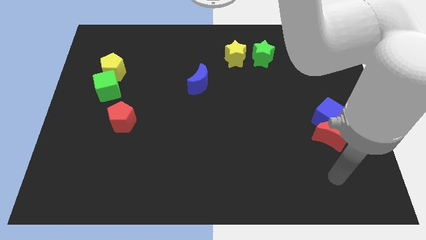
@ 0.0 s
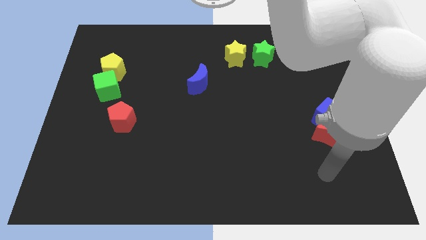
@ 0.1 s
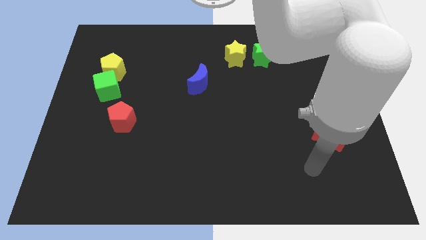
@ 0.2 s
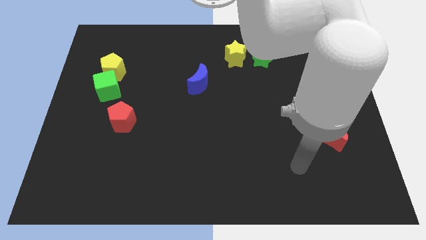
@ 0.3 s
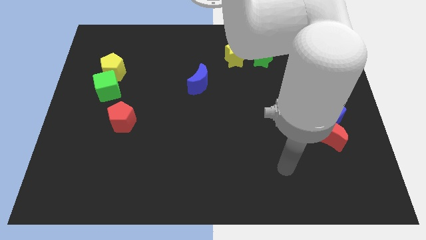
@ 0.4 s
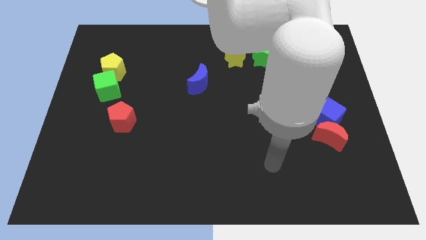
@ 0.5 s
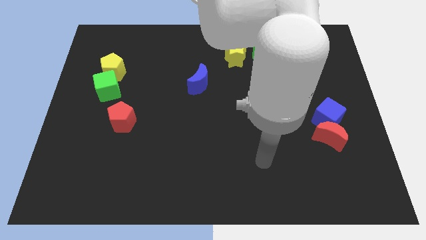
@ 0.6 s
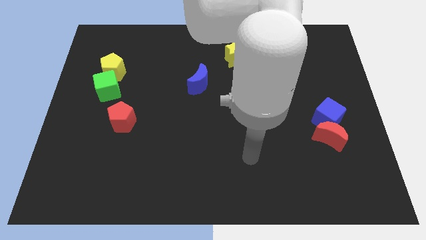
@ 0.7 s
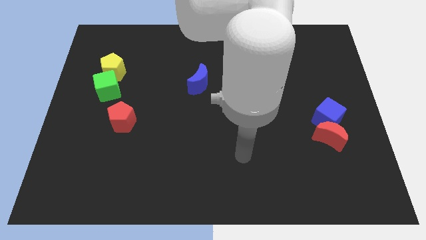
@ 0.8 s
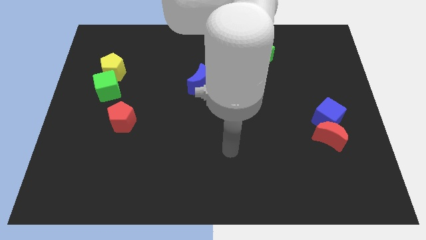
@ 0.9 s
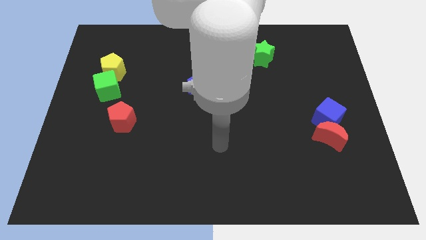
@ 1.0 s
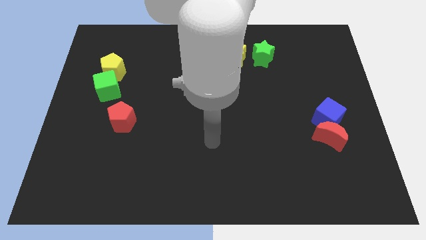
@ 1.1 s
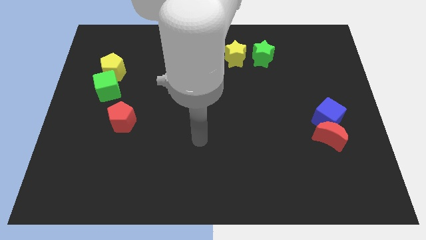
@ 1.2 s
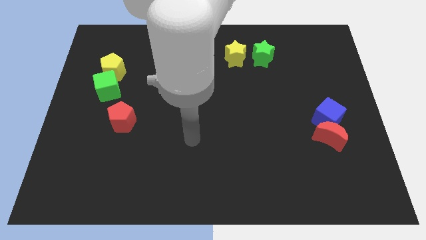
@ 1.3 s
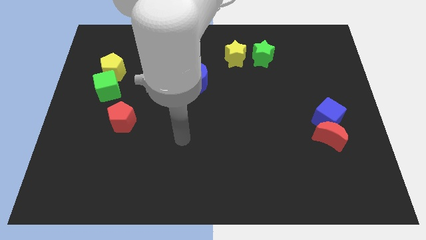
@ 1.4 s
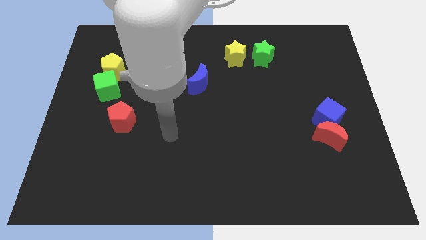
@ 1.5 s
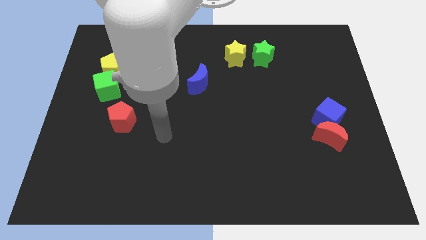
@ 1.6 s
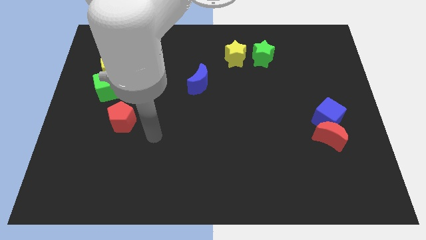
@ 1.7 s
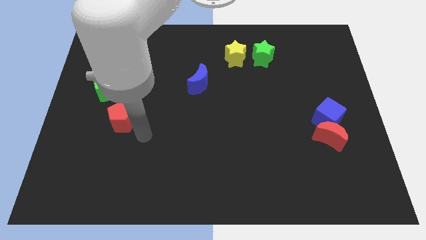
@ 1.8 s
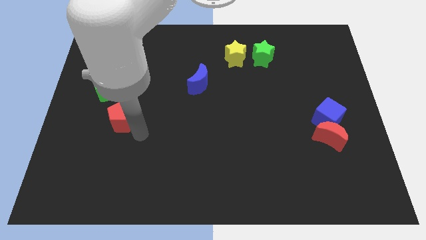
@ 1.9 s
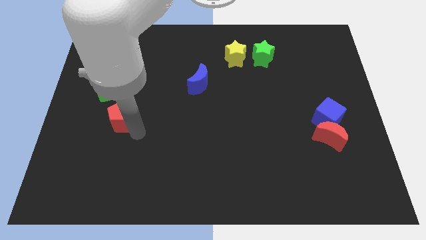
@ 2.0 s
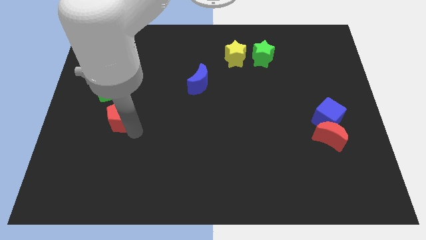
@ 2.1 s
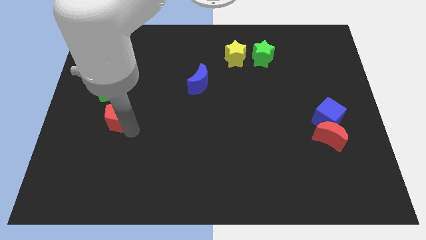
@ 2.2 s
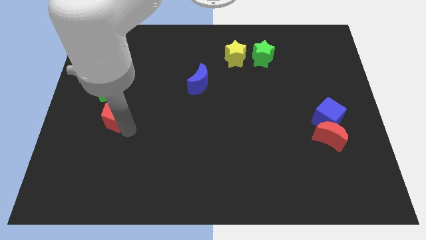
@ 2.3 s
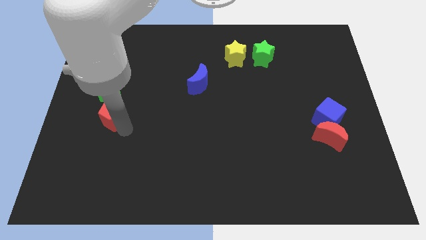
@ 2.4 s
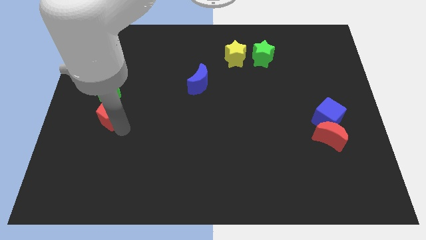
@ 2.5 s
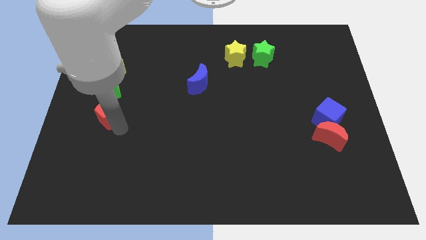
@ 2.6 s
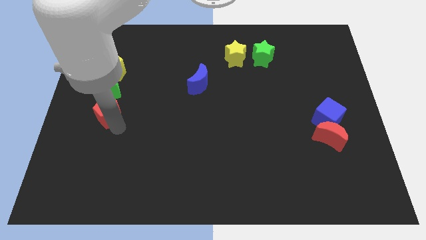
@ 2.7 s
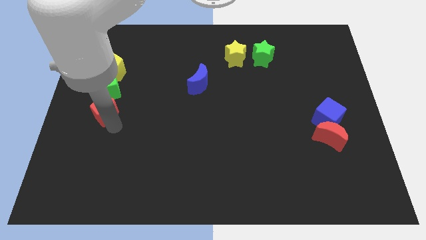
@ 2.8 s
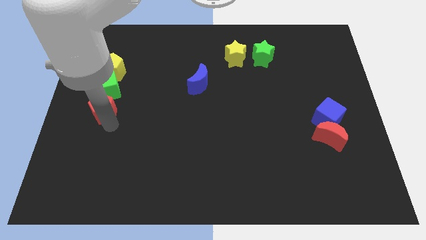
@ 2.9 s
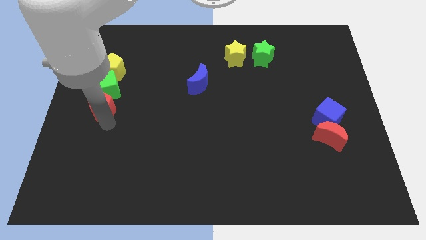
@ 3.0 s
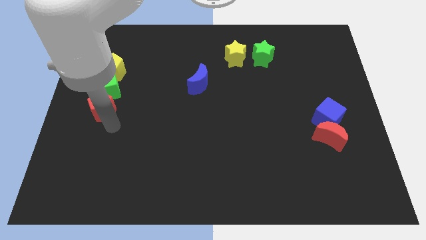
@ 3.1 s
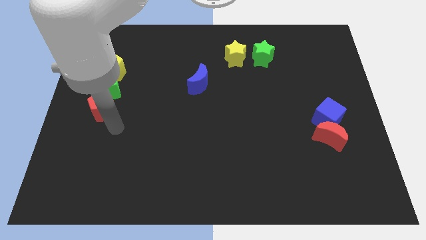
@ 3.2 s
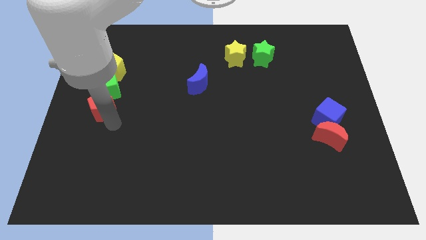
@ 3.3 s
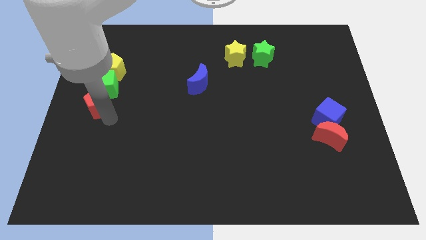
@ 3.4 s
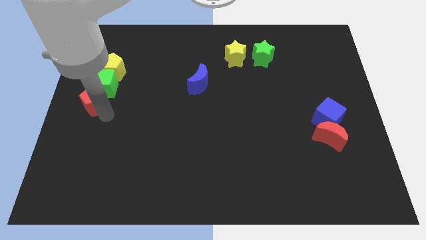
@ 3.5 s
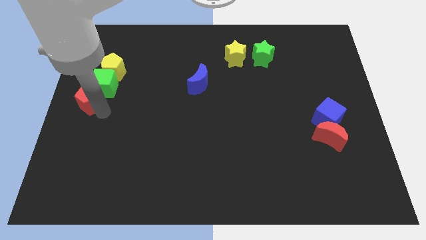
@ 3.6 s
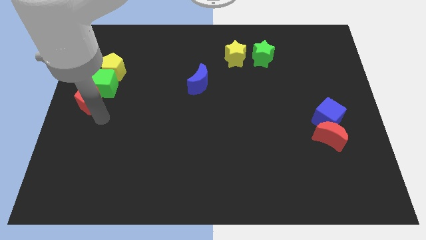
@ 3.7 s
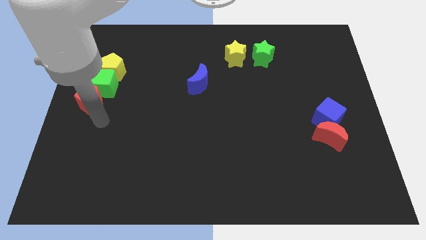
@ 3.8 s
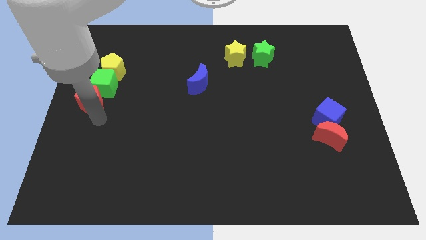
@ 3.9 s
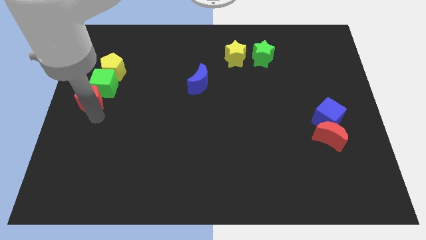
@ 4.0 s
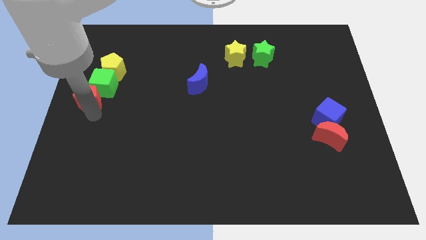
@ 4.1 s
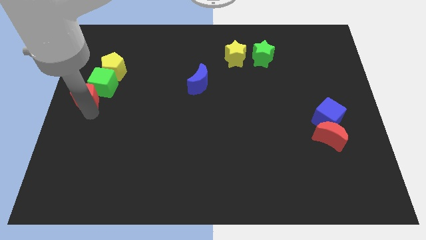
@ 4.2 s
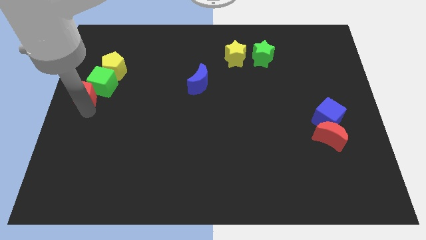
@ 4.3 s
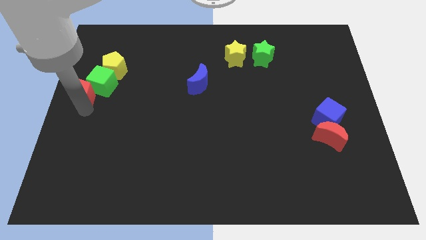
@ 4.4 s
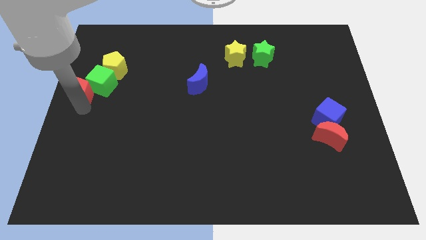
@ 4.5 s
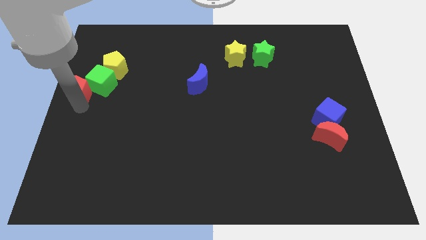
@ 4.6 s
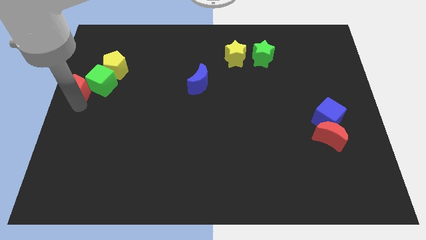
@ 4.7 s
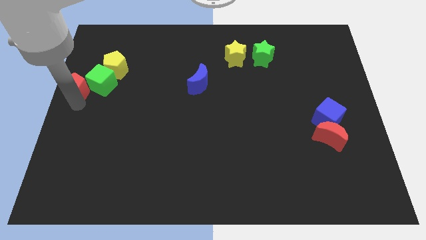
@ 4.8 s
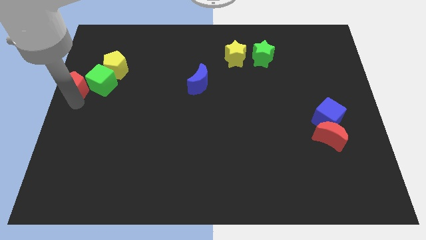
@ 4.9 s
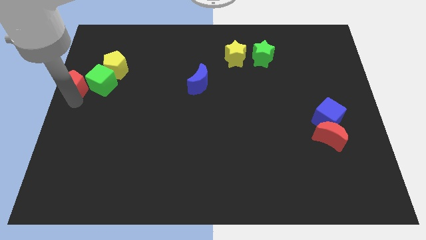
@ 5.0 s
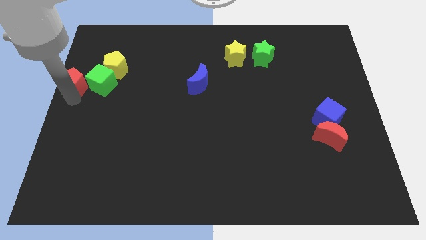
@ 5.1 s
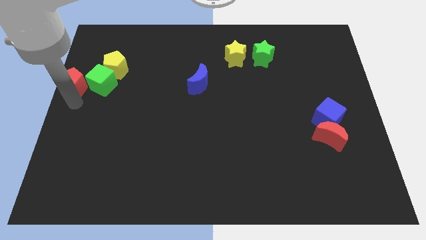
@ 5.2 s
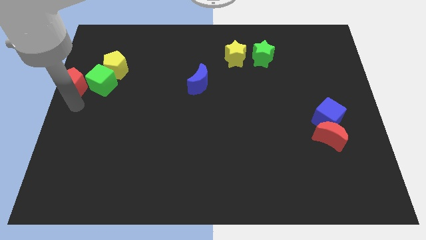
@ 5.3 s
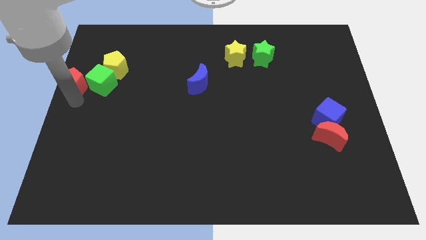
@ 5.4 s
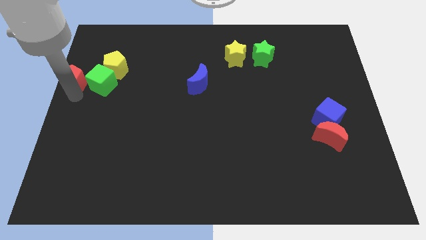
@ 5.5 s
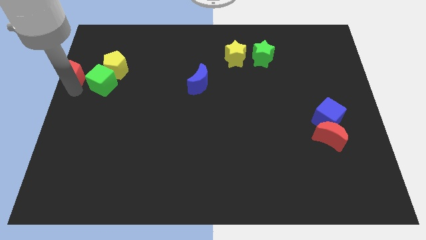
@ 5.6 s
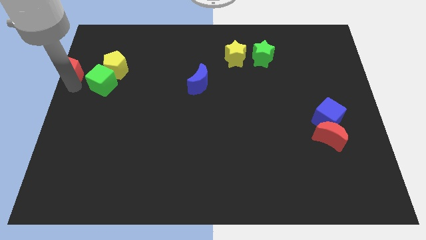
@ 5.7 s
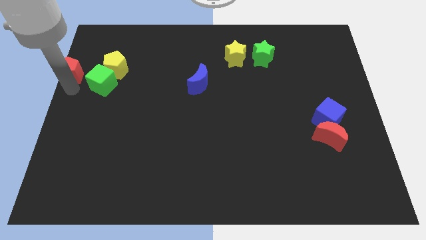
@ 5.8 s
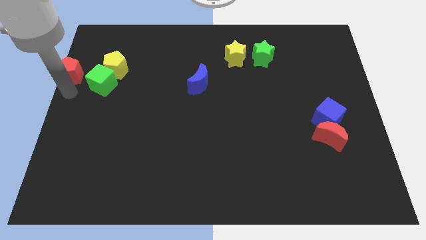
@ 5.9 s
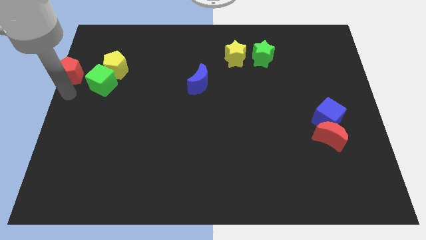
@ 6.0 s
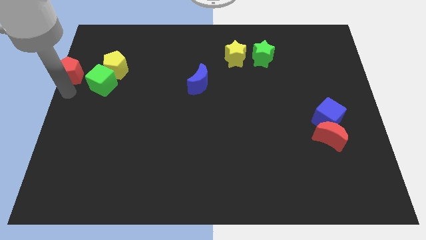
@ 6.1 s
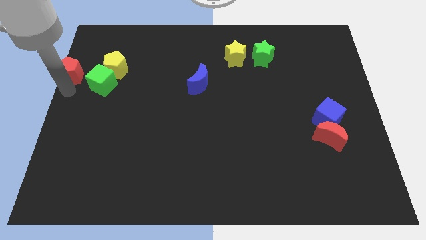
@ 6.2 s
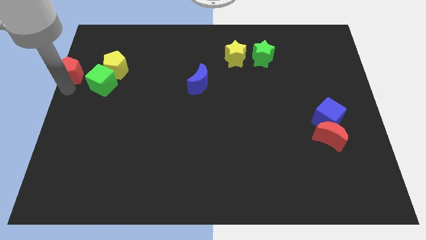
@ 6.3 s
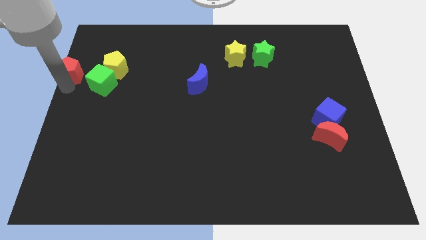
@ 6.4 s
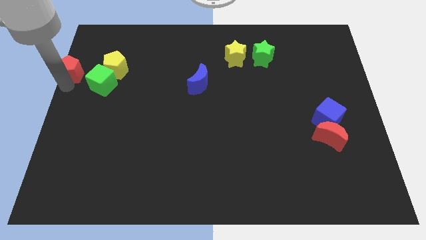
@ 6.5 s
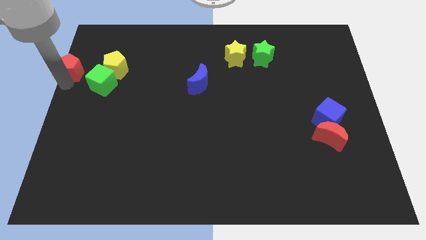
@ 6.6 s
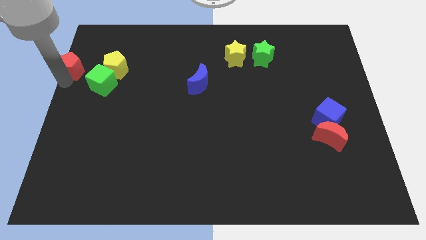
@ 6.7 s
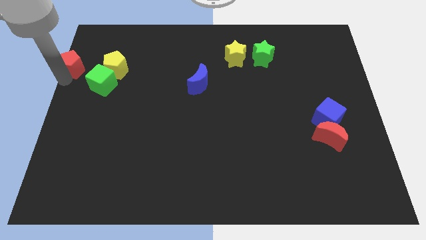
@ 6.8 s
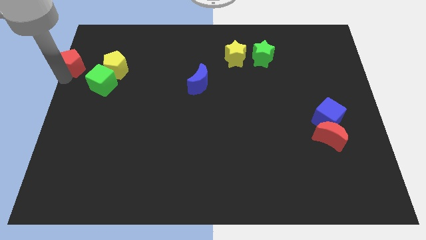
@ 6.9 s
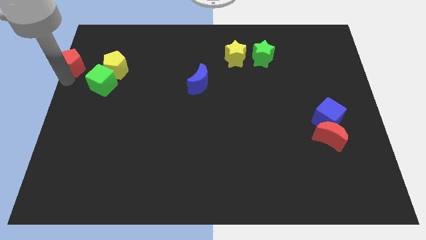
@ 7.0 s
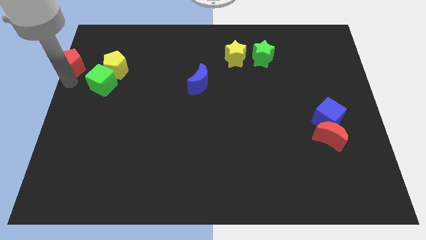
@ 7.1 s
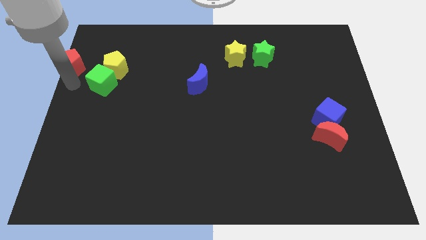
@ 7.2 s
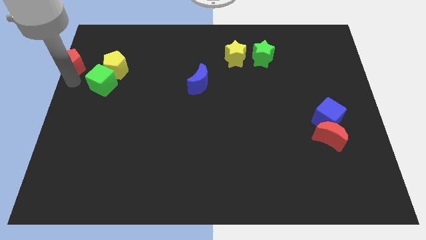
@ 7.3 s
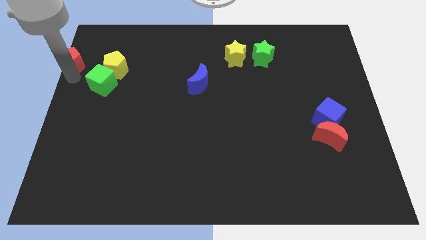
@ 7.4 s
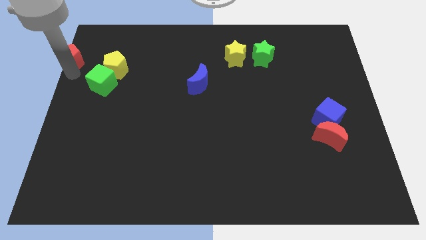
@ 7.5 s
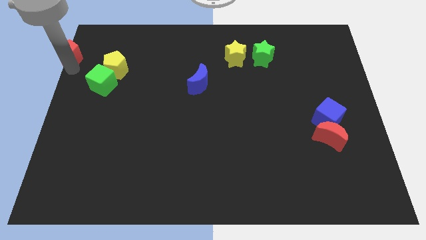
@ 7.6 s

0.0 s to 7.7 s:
slide the red pentagon to the top left
